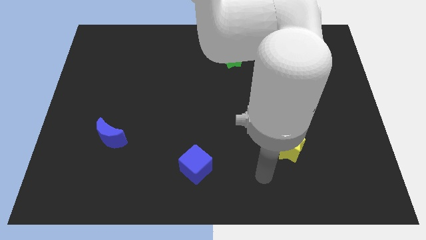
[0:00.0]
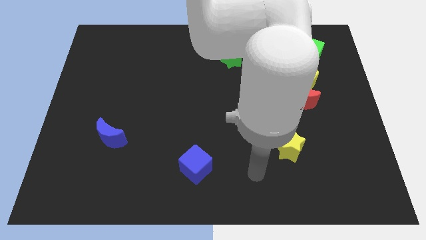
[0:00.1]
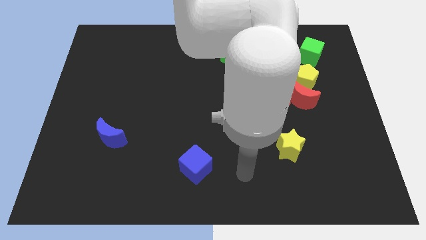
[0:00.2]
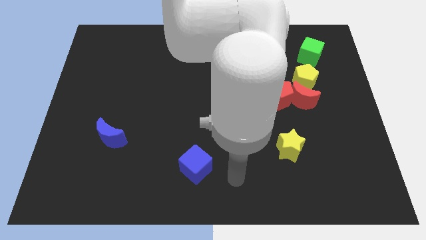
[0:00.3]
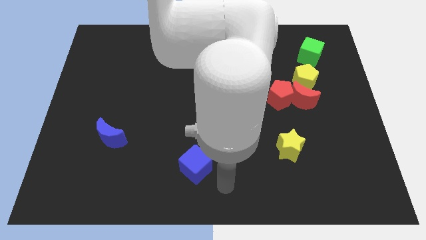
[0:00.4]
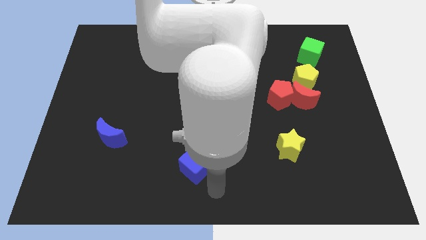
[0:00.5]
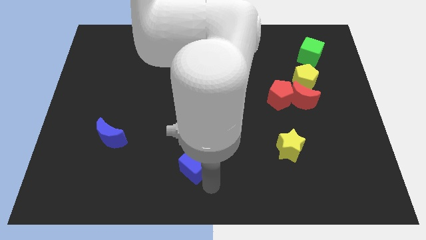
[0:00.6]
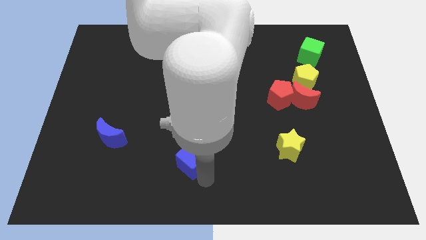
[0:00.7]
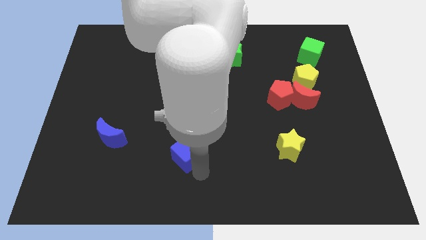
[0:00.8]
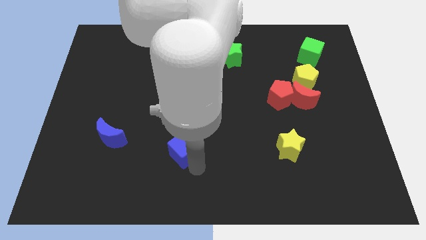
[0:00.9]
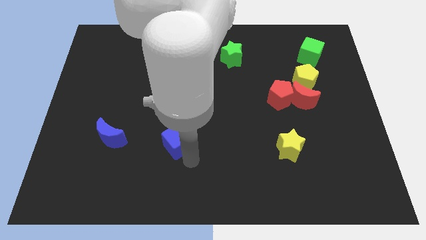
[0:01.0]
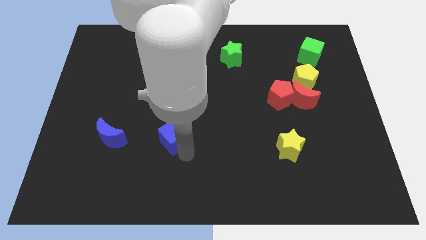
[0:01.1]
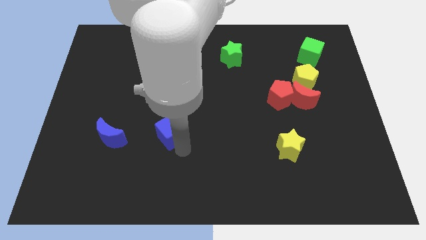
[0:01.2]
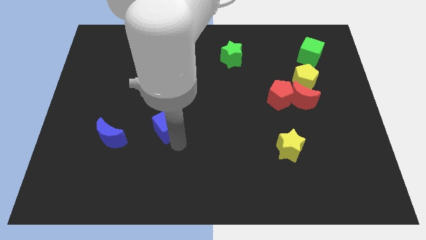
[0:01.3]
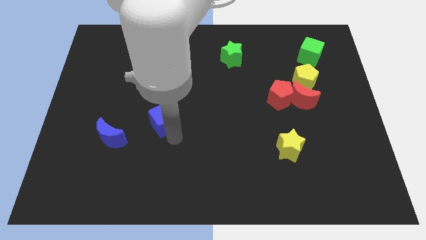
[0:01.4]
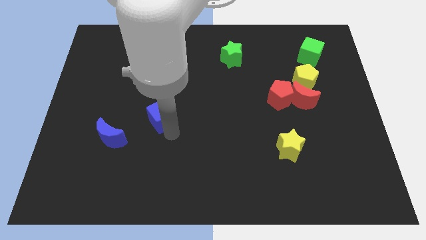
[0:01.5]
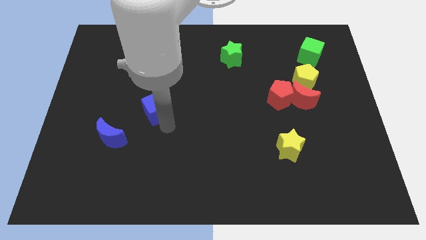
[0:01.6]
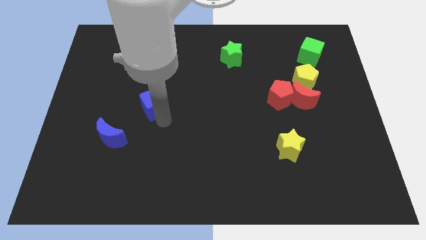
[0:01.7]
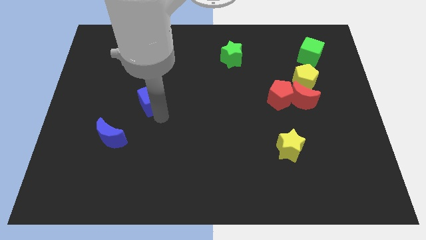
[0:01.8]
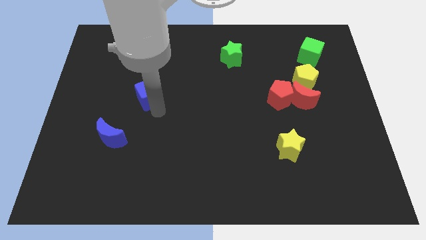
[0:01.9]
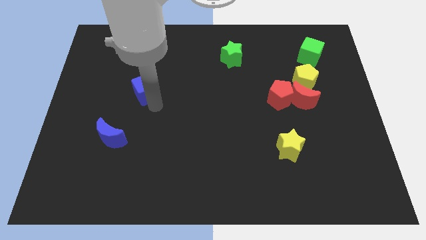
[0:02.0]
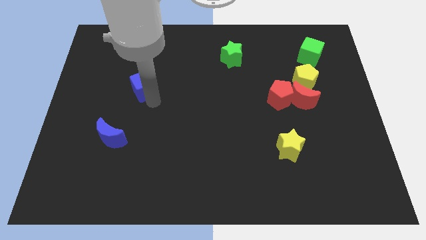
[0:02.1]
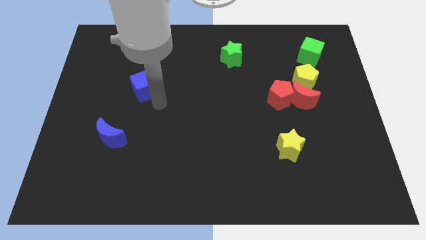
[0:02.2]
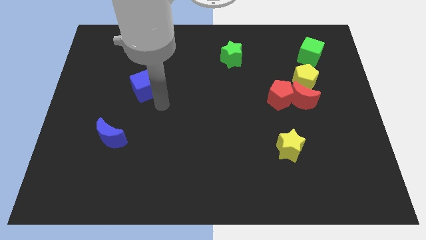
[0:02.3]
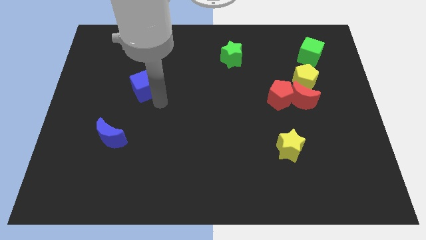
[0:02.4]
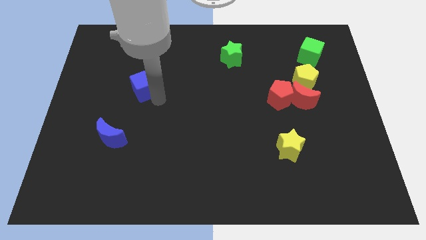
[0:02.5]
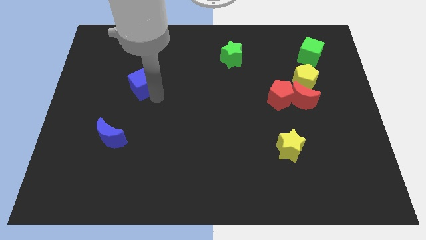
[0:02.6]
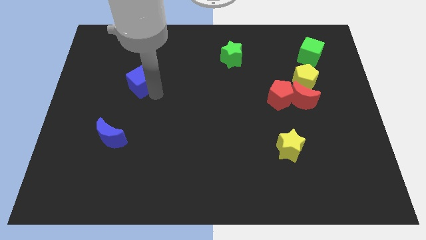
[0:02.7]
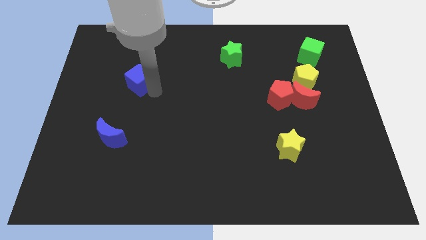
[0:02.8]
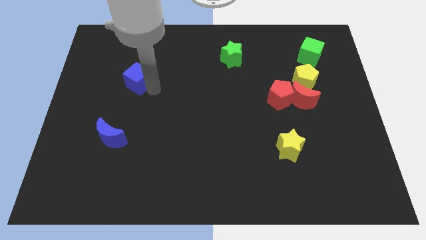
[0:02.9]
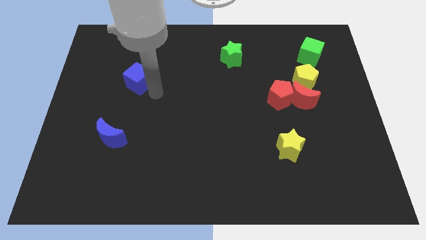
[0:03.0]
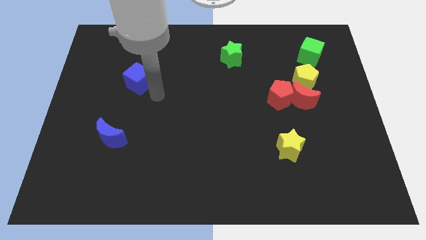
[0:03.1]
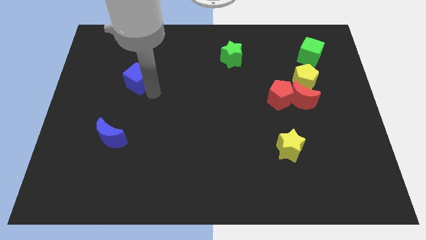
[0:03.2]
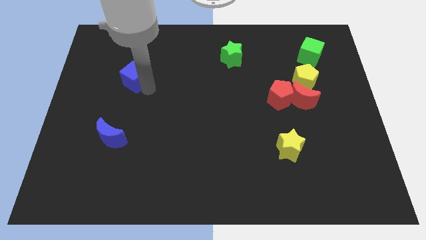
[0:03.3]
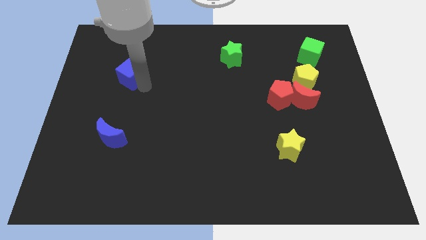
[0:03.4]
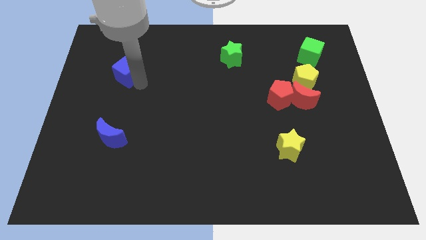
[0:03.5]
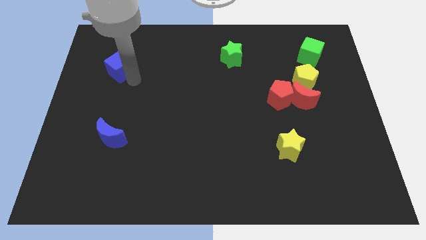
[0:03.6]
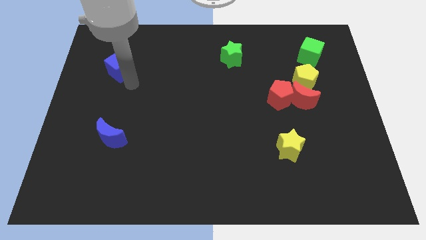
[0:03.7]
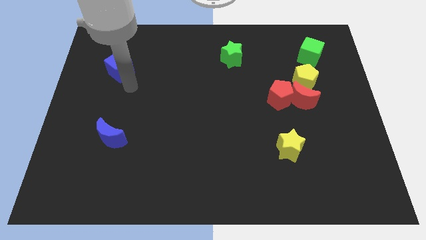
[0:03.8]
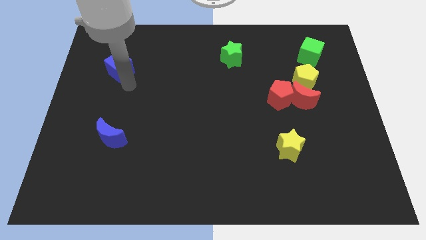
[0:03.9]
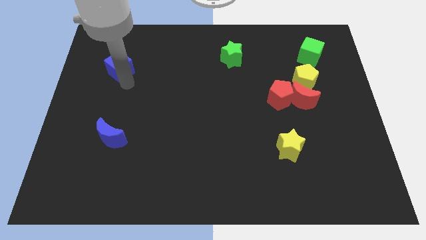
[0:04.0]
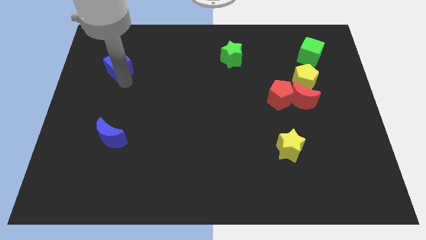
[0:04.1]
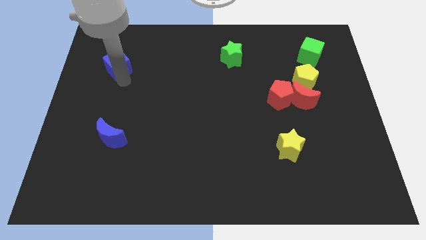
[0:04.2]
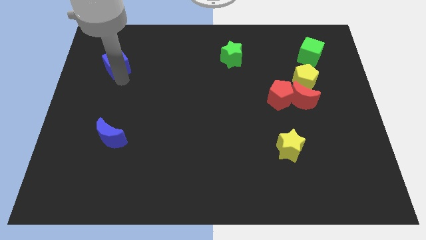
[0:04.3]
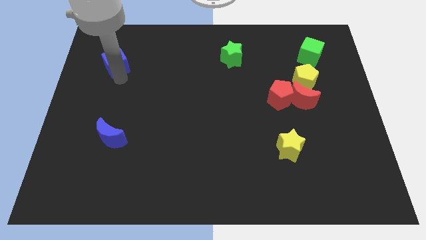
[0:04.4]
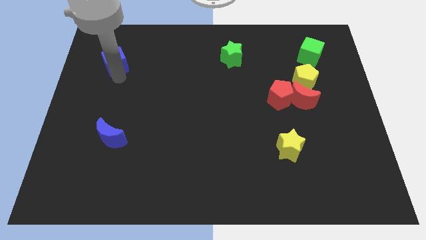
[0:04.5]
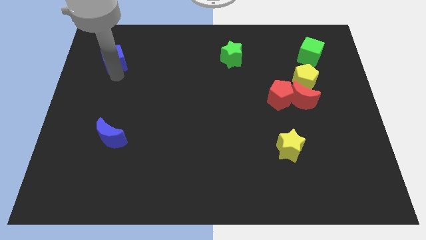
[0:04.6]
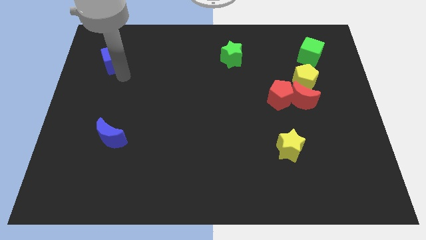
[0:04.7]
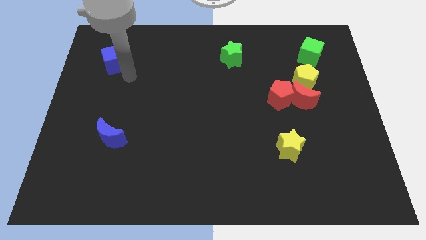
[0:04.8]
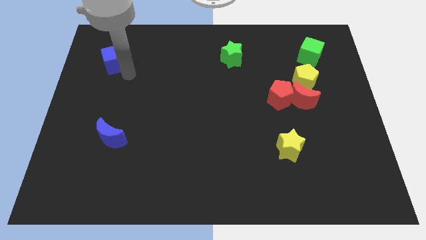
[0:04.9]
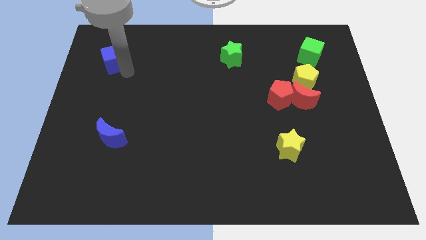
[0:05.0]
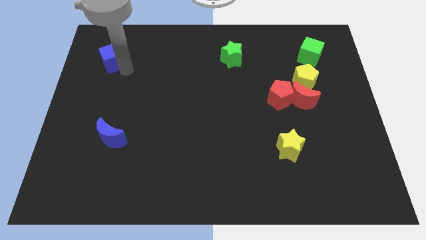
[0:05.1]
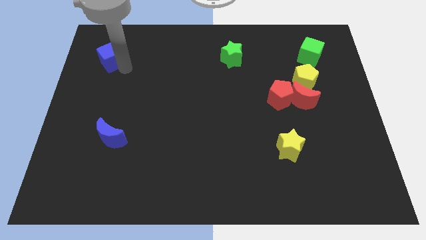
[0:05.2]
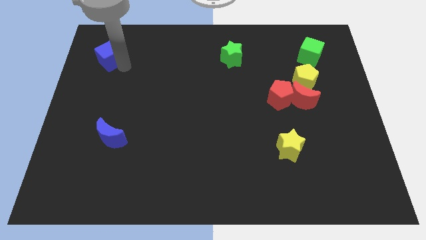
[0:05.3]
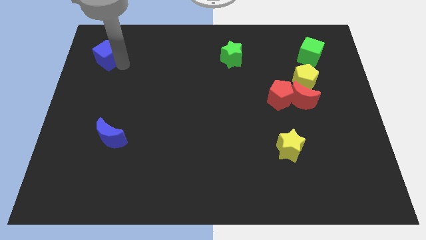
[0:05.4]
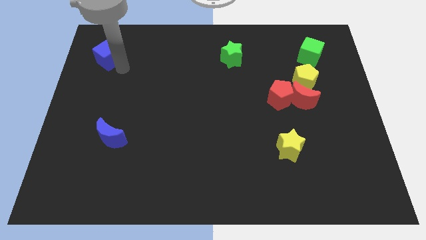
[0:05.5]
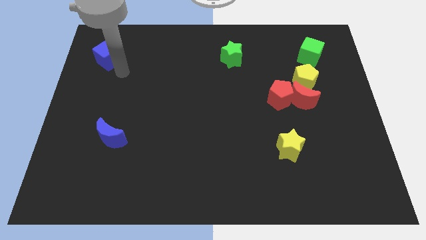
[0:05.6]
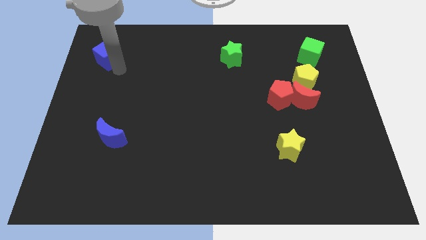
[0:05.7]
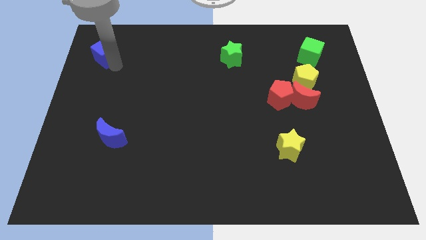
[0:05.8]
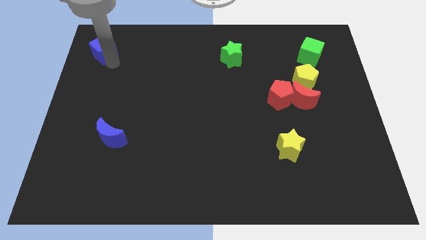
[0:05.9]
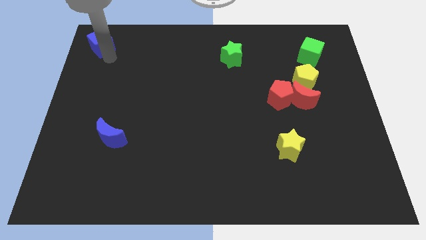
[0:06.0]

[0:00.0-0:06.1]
push the blue cube to the top left of the board
